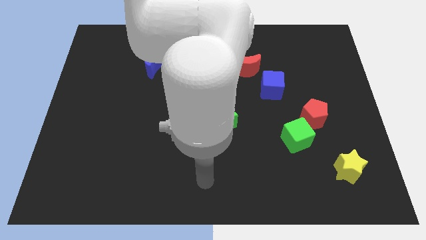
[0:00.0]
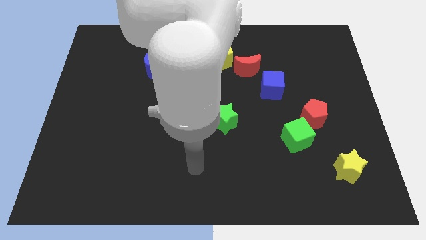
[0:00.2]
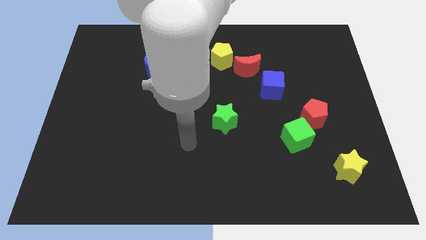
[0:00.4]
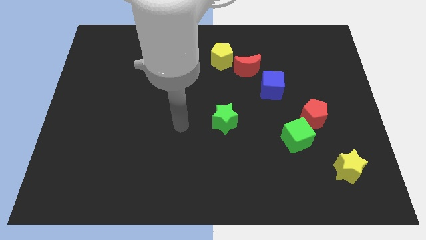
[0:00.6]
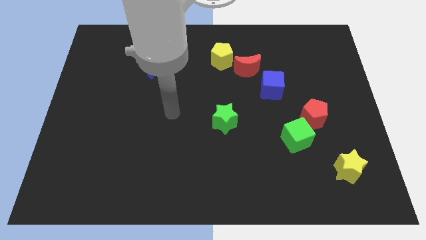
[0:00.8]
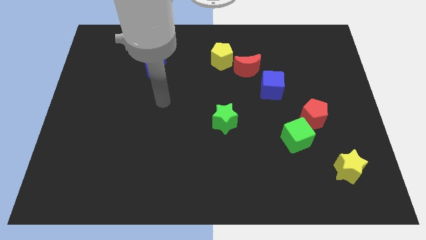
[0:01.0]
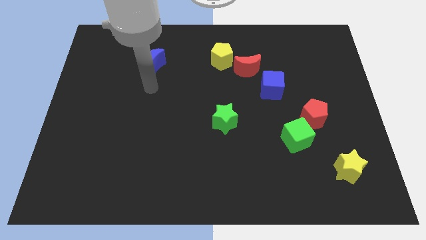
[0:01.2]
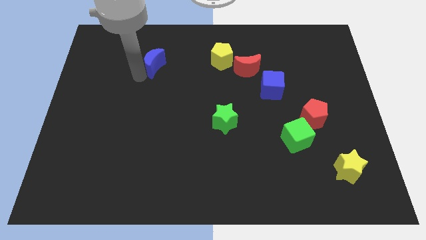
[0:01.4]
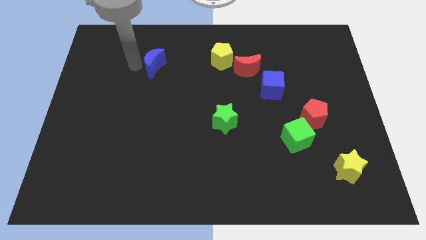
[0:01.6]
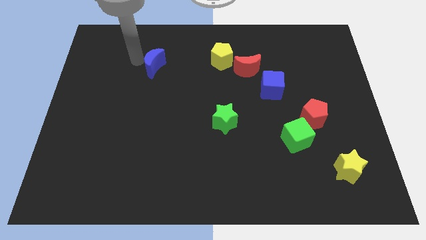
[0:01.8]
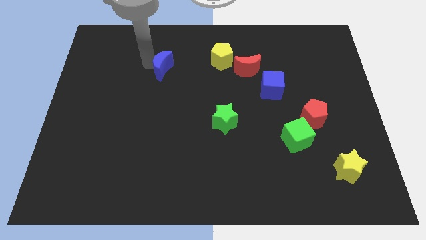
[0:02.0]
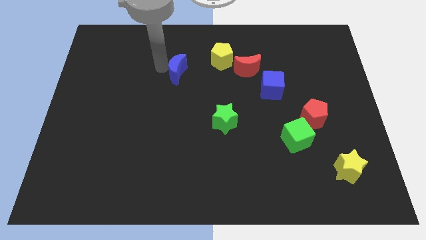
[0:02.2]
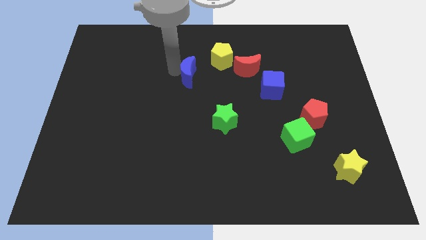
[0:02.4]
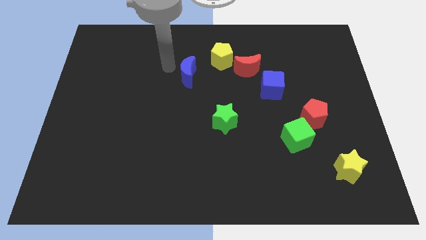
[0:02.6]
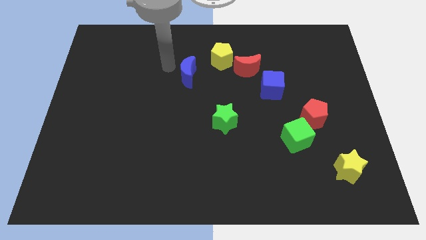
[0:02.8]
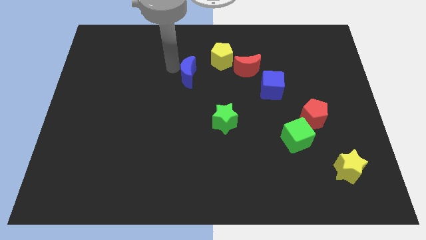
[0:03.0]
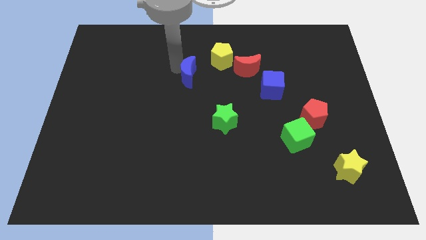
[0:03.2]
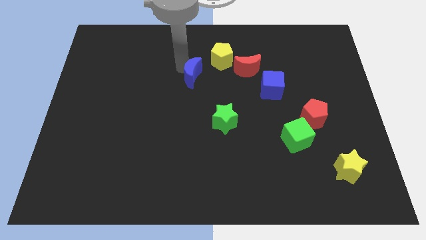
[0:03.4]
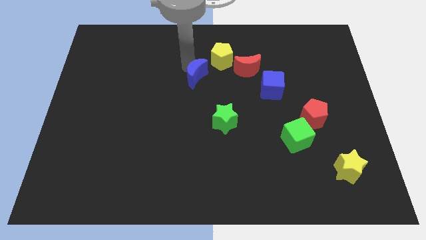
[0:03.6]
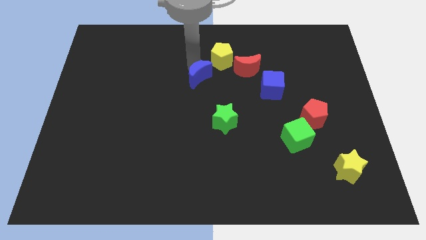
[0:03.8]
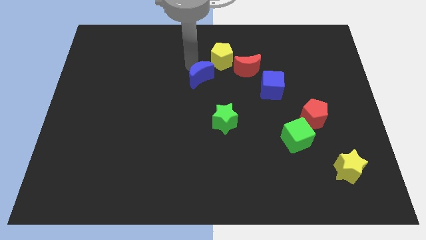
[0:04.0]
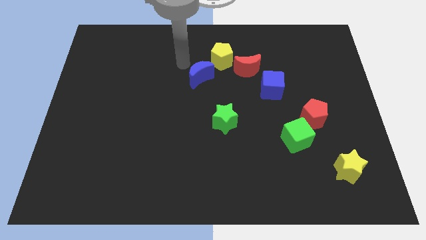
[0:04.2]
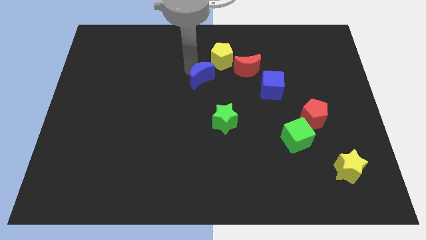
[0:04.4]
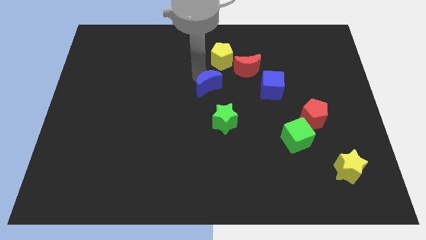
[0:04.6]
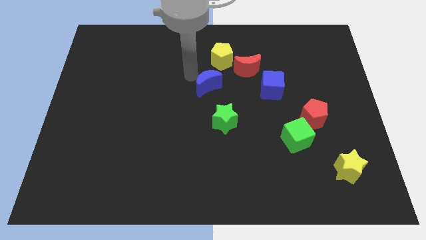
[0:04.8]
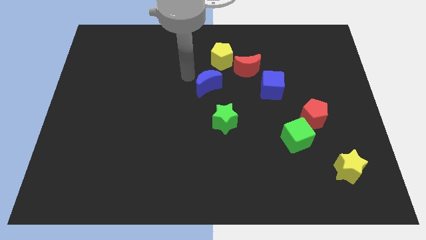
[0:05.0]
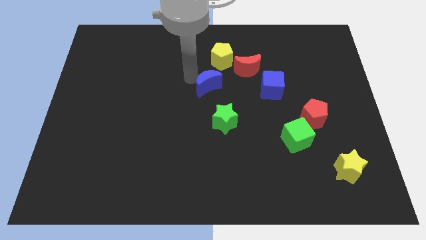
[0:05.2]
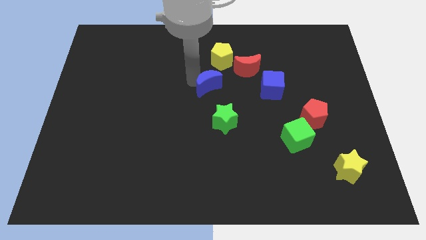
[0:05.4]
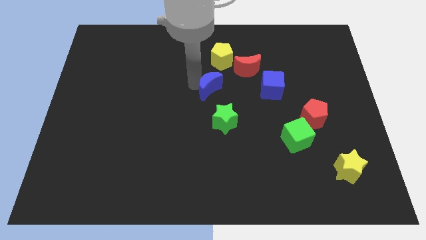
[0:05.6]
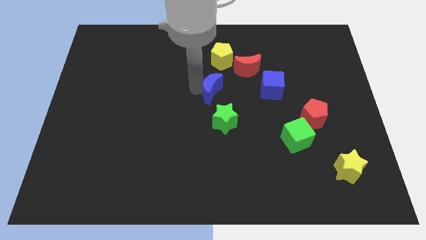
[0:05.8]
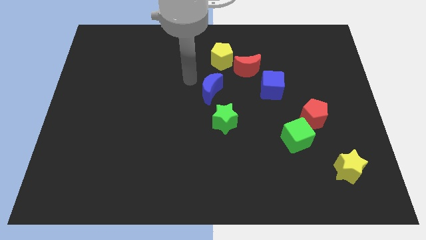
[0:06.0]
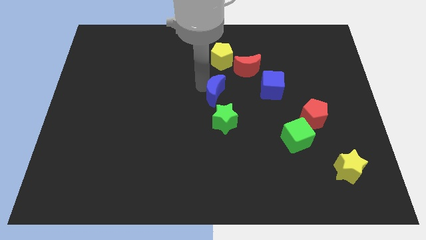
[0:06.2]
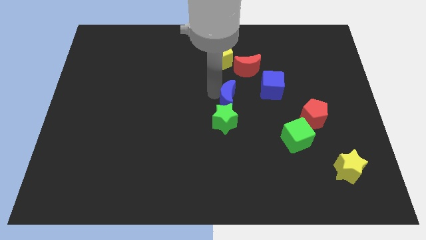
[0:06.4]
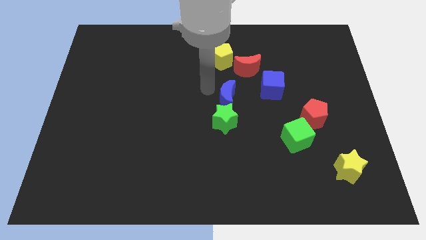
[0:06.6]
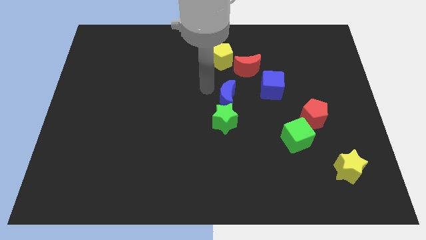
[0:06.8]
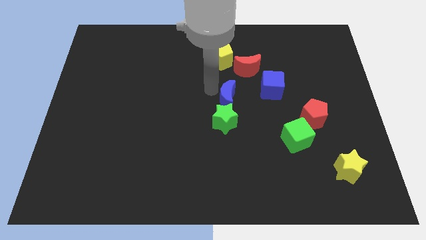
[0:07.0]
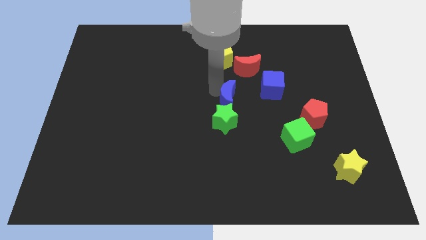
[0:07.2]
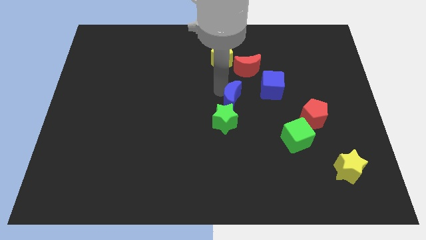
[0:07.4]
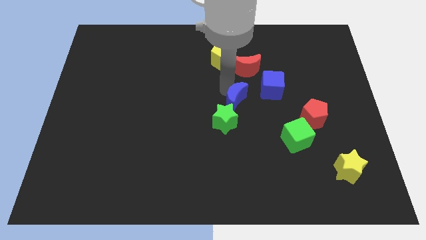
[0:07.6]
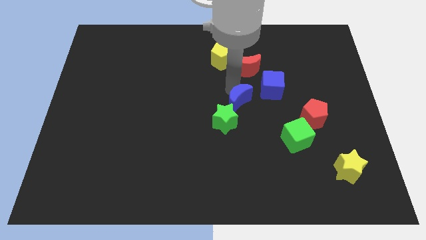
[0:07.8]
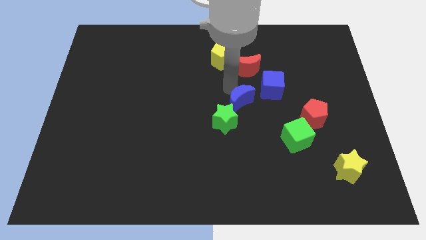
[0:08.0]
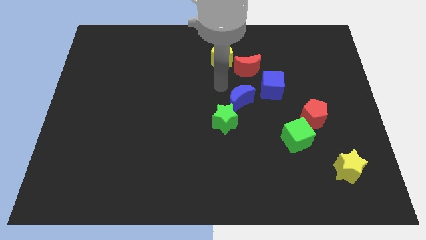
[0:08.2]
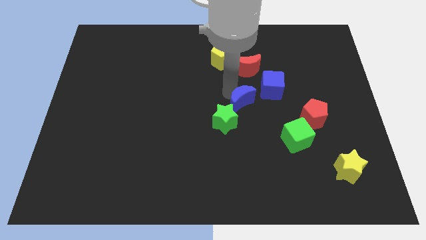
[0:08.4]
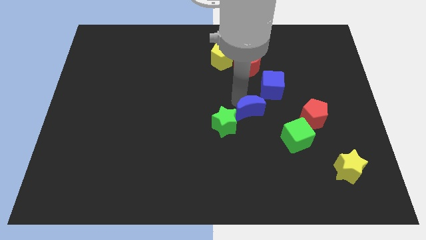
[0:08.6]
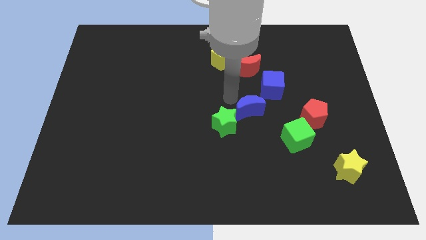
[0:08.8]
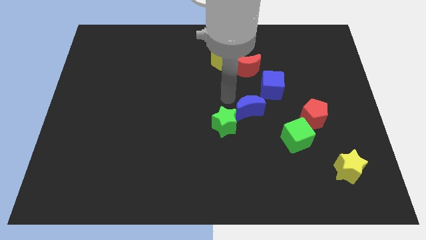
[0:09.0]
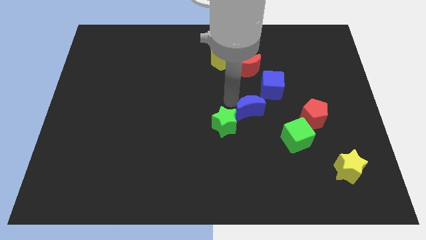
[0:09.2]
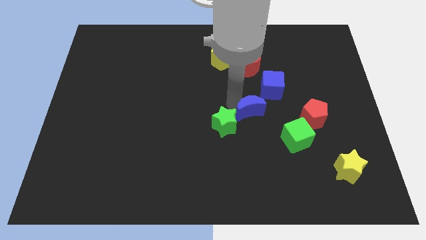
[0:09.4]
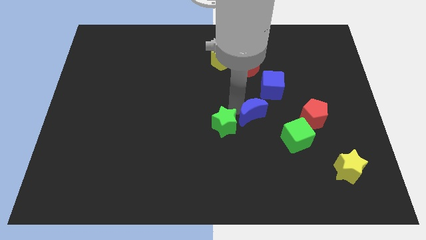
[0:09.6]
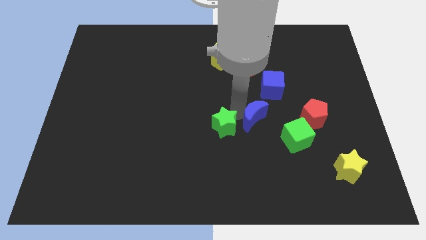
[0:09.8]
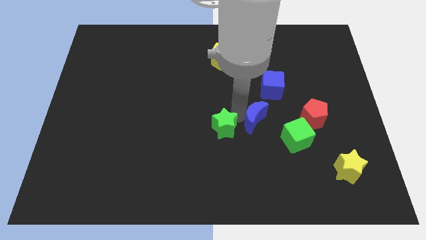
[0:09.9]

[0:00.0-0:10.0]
put the blue moon below the blue cube

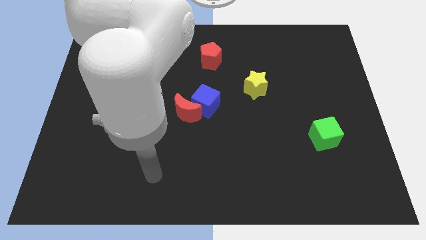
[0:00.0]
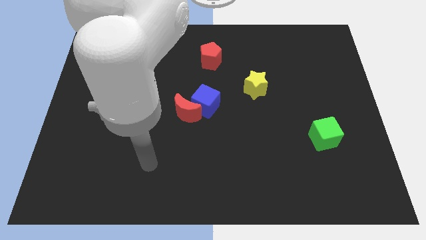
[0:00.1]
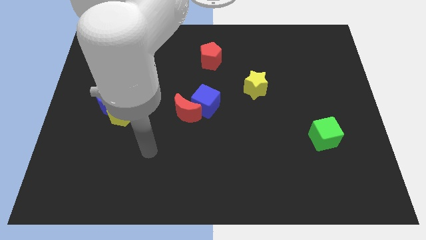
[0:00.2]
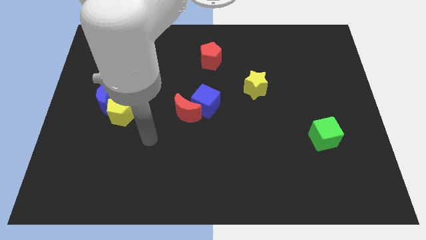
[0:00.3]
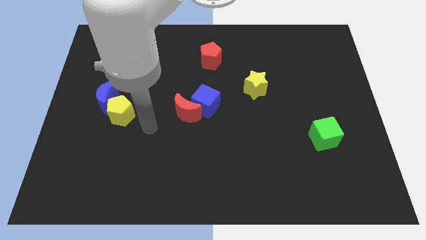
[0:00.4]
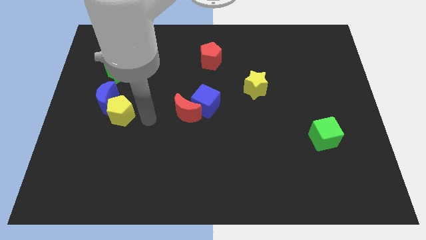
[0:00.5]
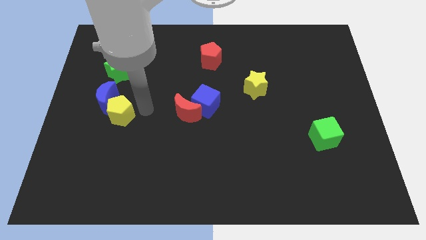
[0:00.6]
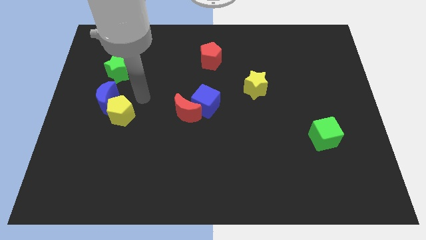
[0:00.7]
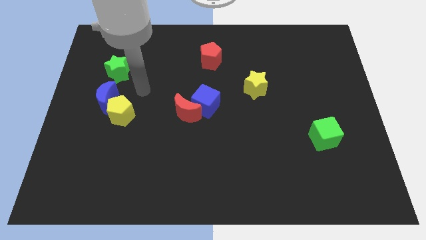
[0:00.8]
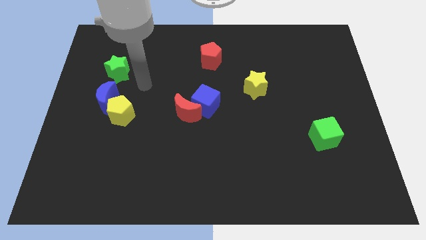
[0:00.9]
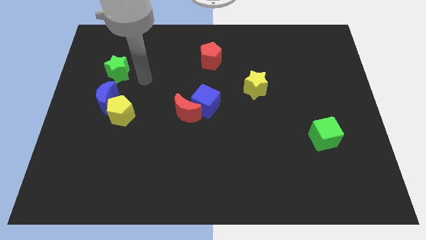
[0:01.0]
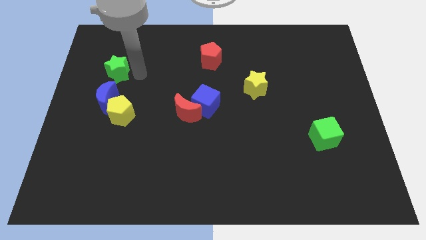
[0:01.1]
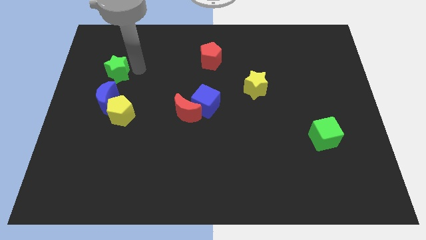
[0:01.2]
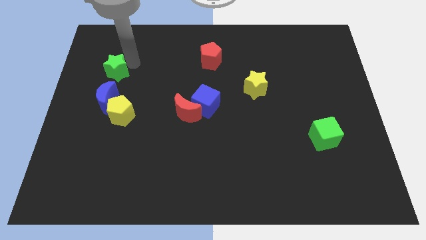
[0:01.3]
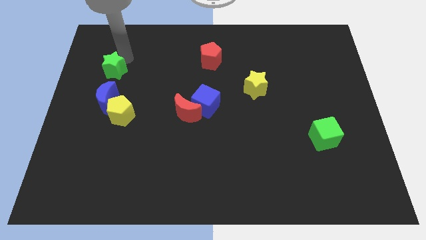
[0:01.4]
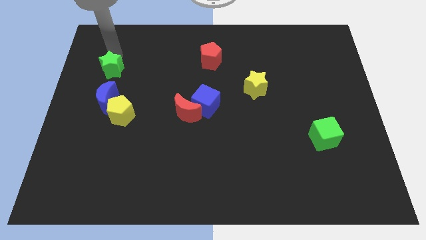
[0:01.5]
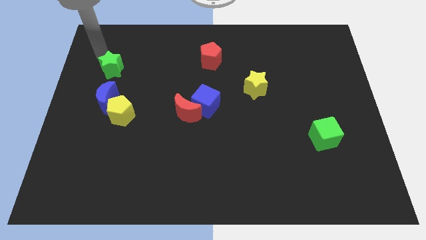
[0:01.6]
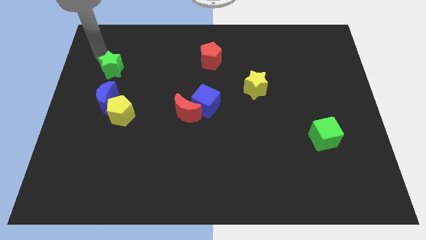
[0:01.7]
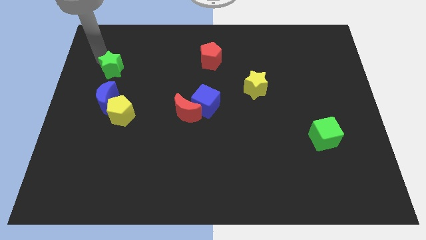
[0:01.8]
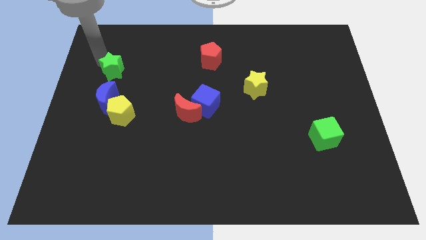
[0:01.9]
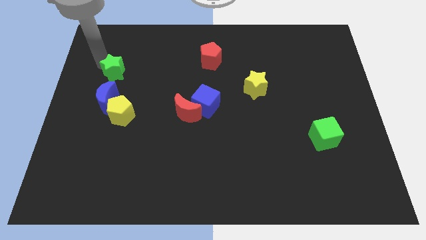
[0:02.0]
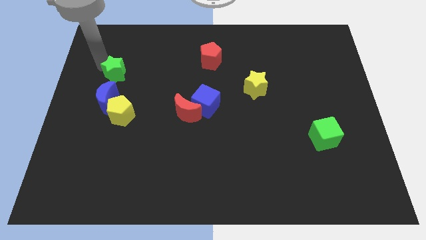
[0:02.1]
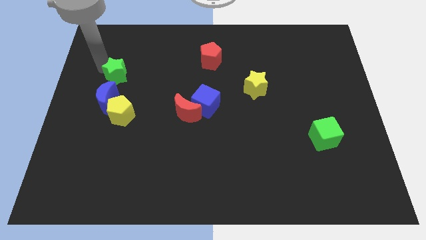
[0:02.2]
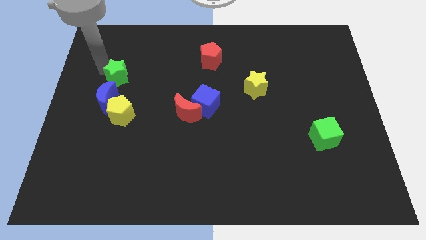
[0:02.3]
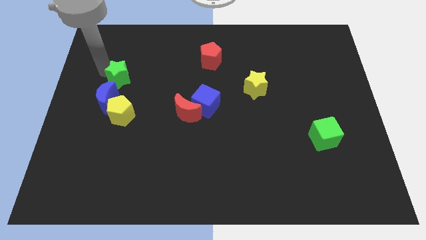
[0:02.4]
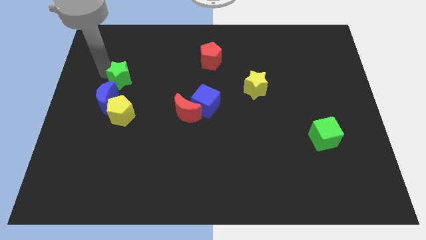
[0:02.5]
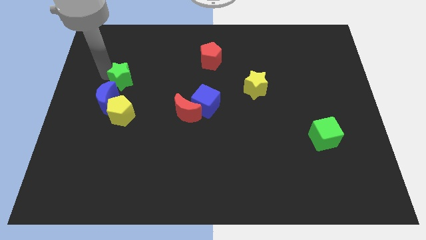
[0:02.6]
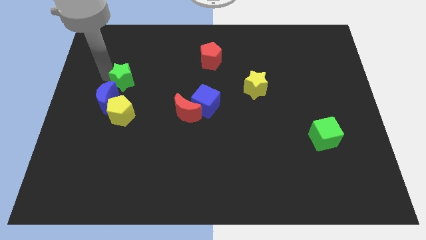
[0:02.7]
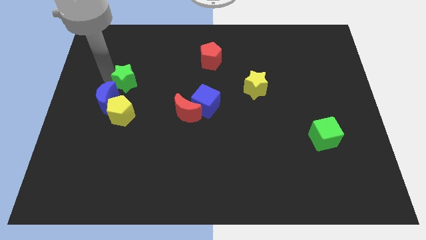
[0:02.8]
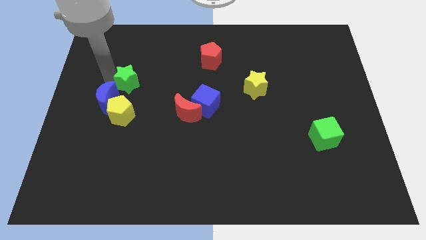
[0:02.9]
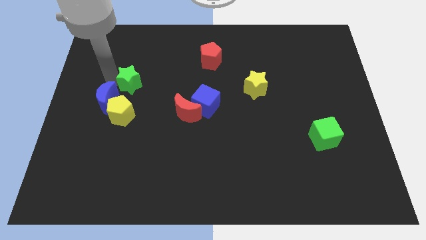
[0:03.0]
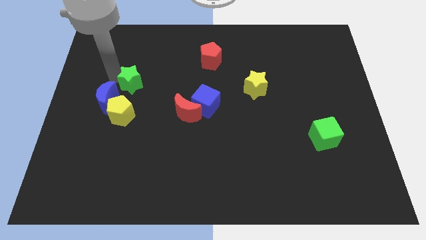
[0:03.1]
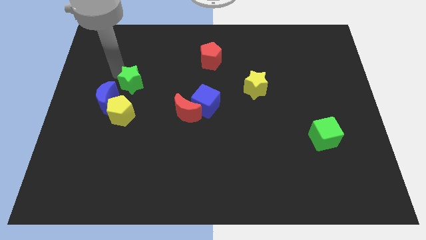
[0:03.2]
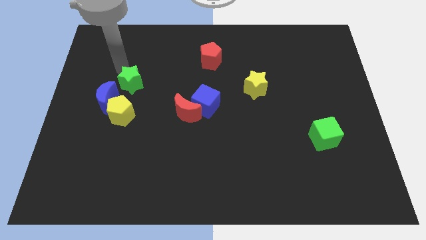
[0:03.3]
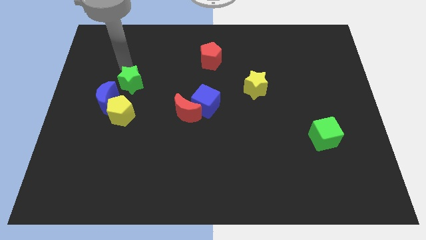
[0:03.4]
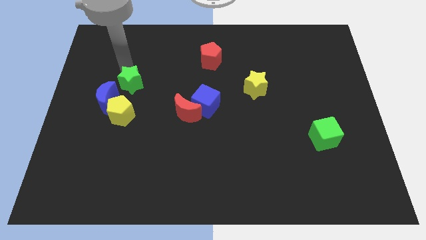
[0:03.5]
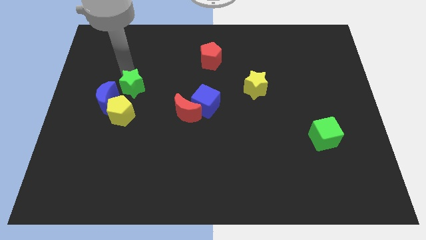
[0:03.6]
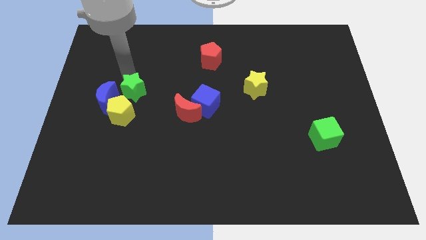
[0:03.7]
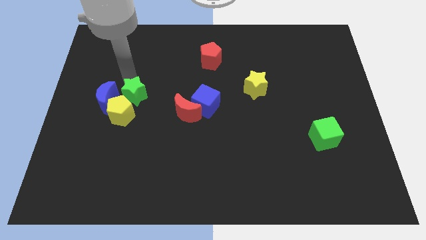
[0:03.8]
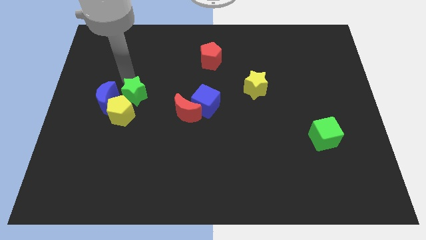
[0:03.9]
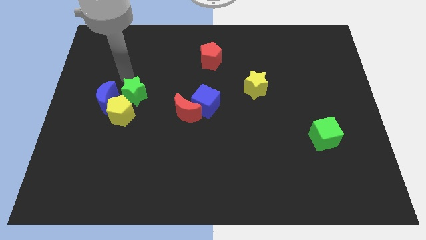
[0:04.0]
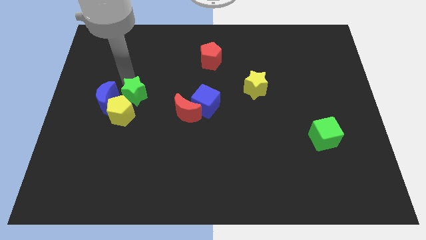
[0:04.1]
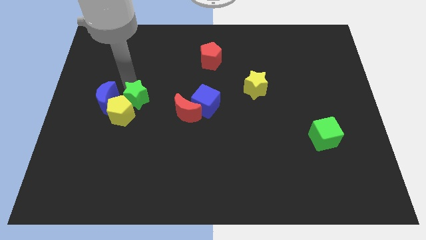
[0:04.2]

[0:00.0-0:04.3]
push the green star to the left of the red moon
